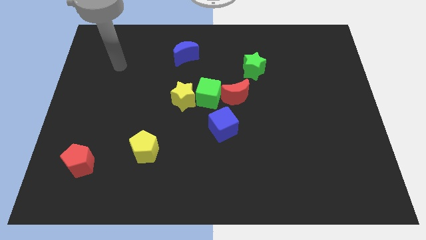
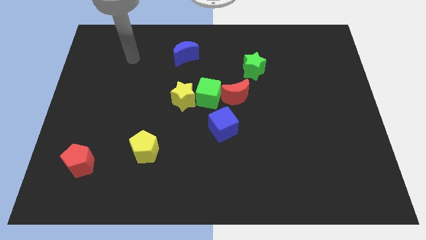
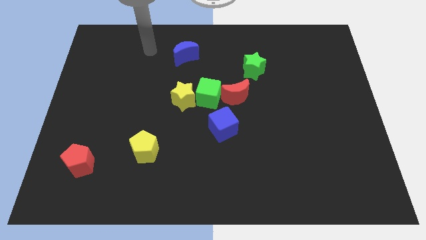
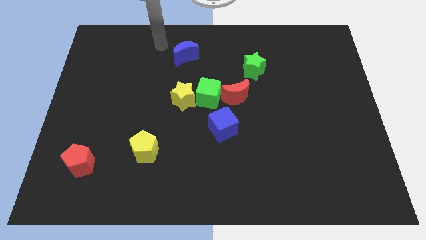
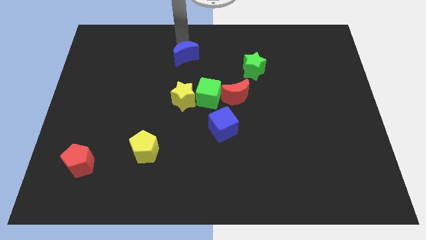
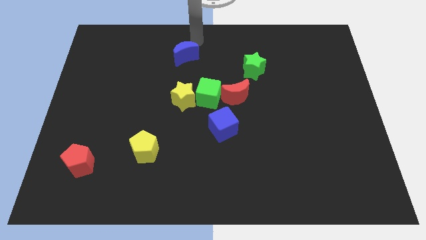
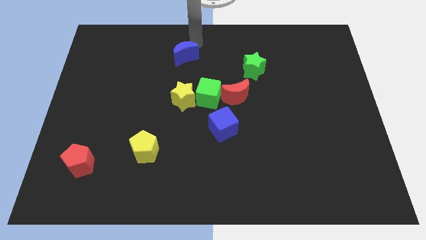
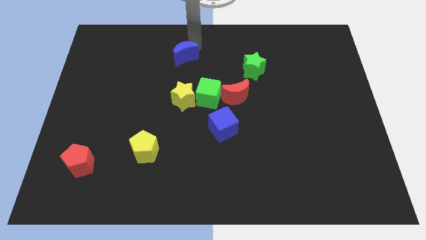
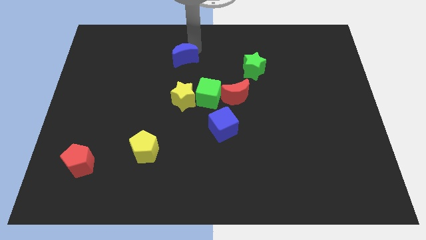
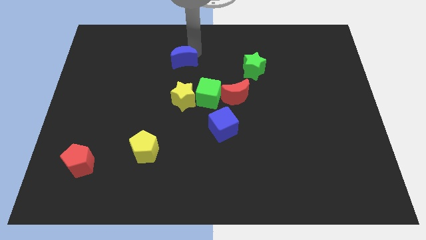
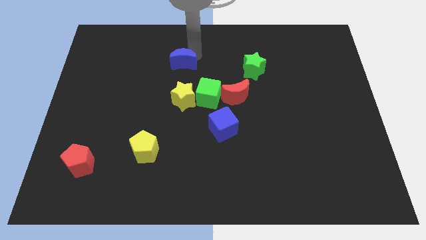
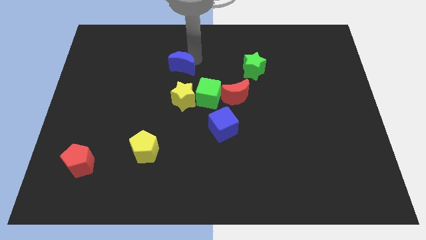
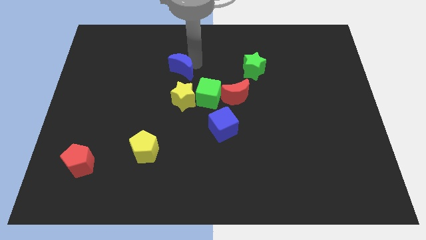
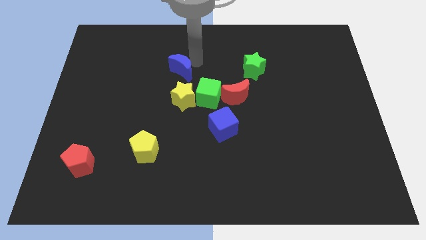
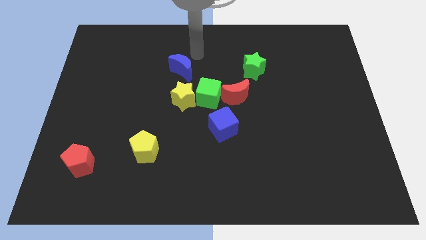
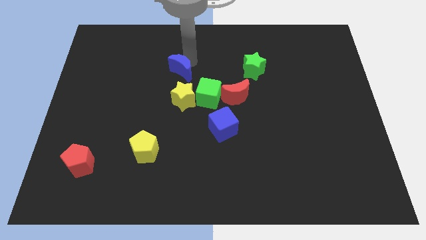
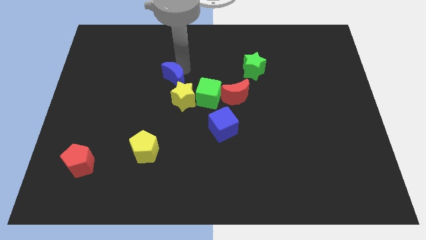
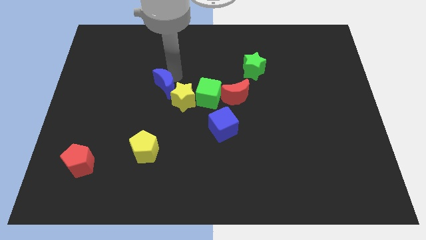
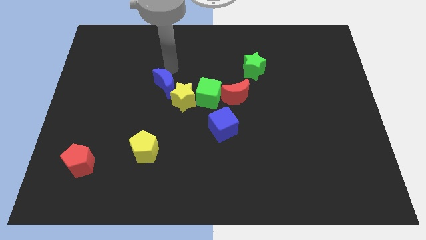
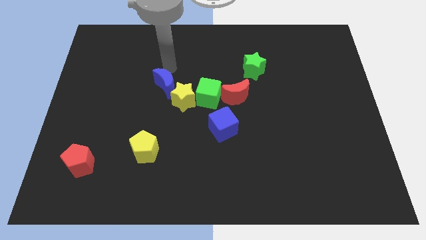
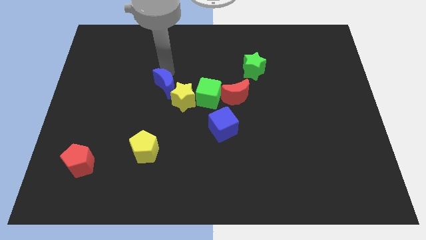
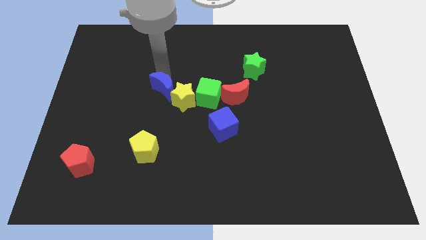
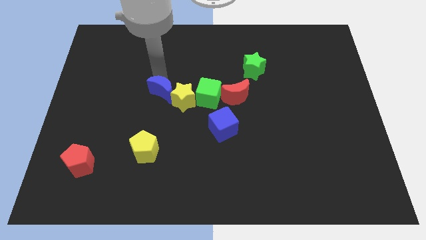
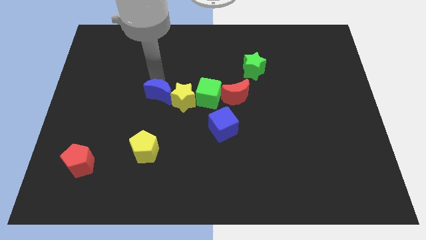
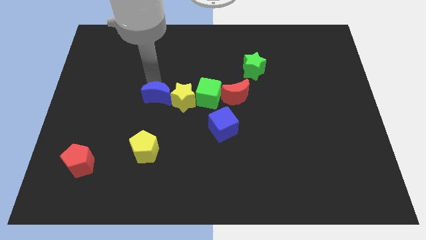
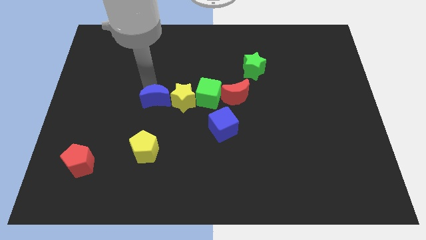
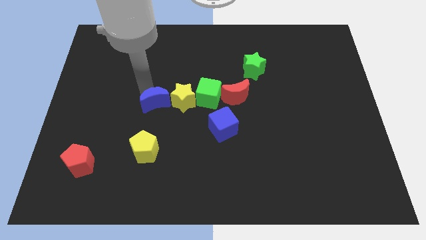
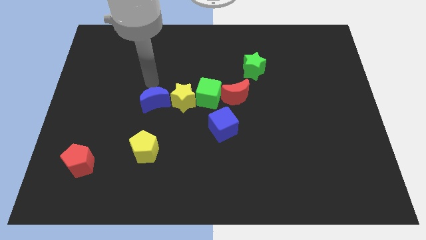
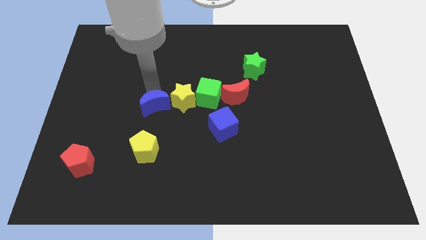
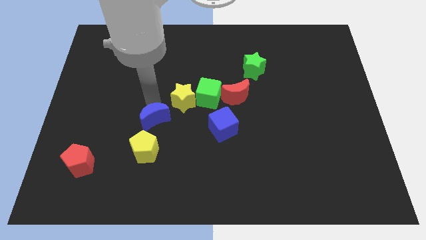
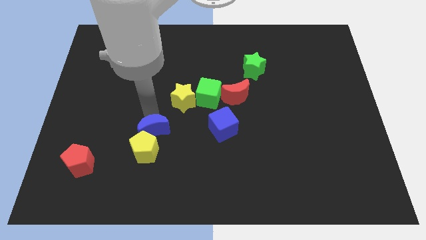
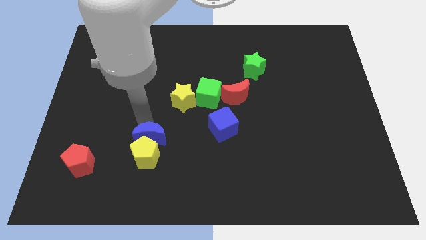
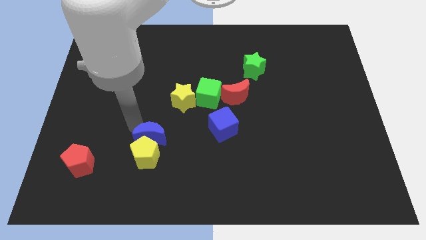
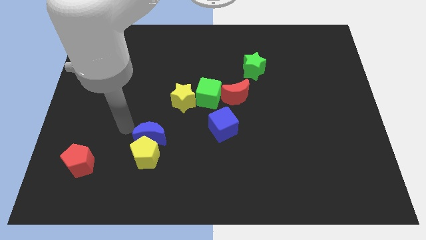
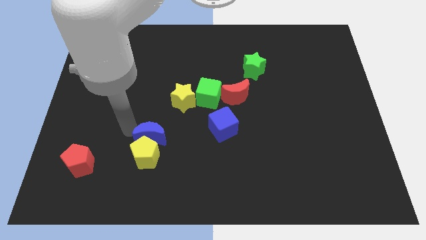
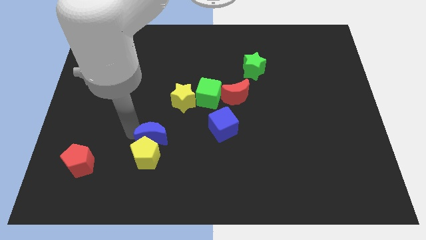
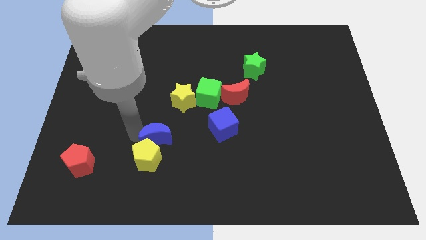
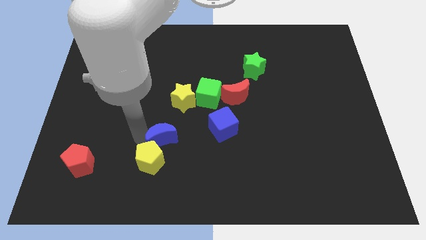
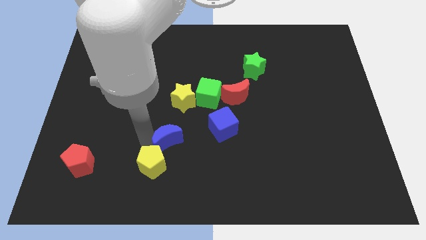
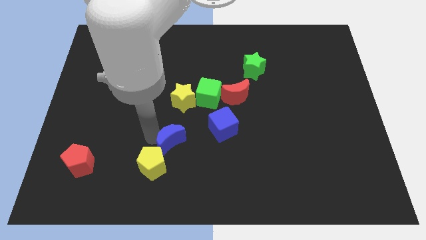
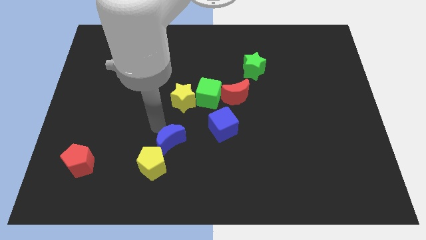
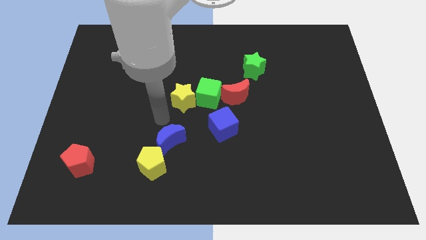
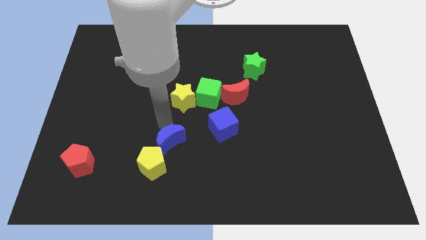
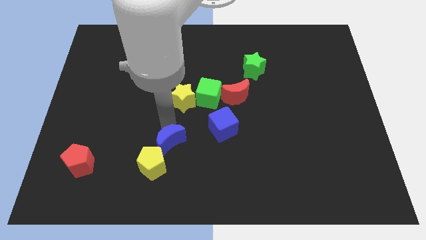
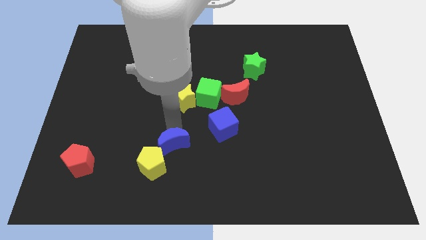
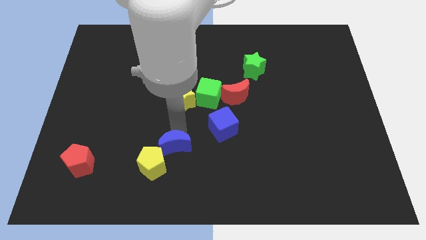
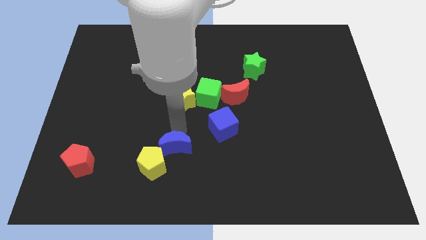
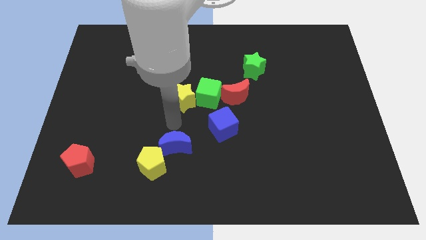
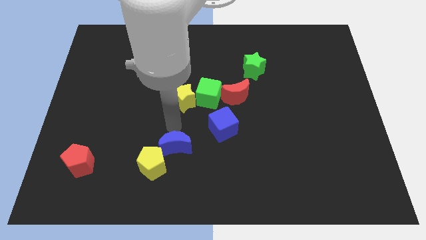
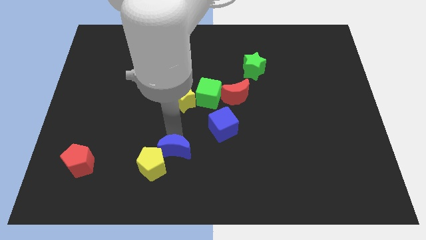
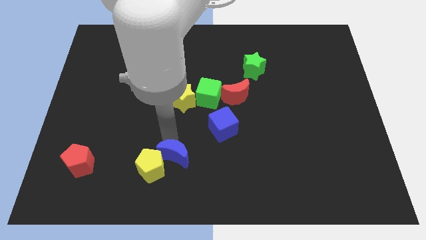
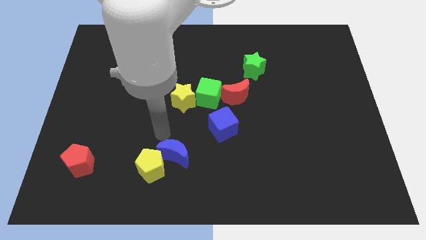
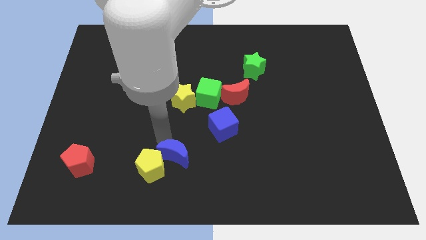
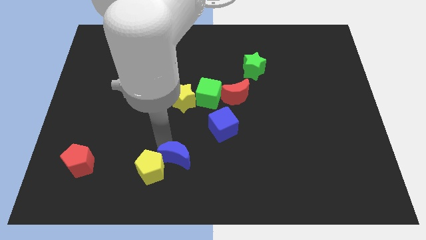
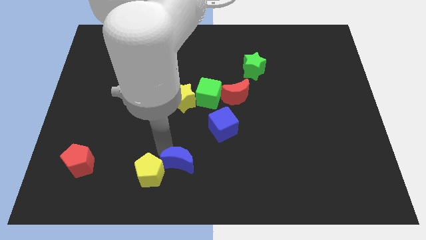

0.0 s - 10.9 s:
slide the blue moon to the bottom

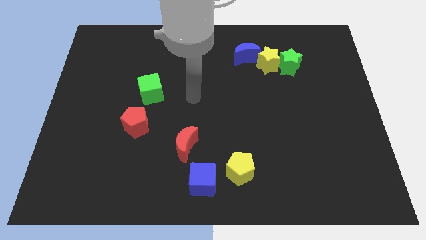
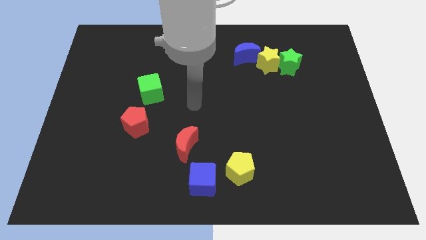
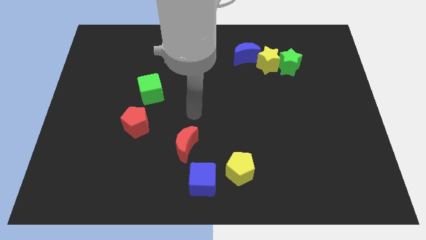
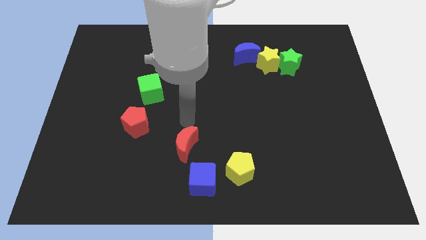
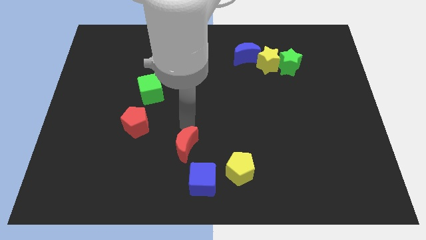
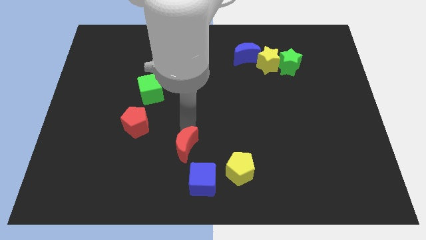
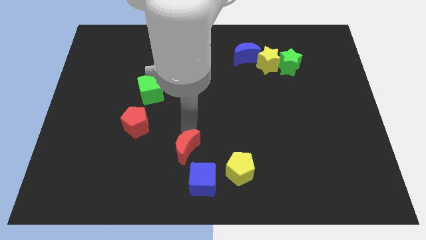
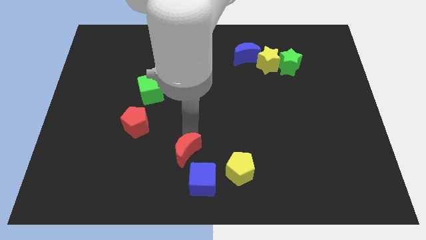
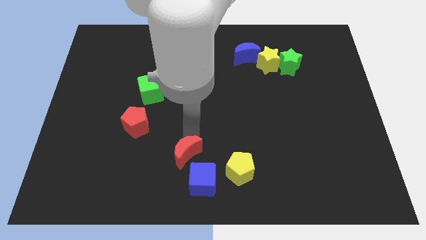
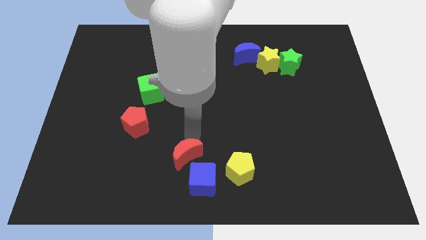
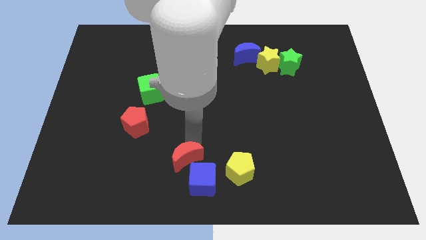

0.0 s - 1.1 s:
move the red moon to the bottom side
